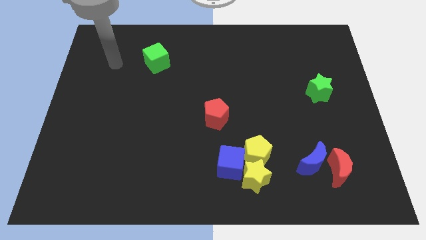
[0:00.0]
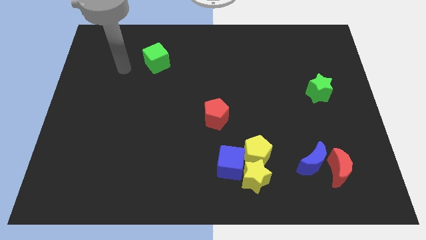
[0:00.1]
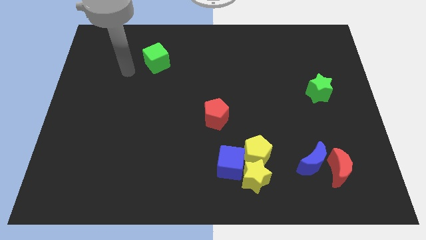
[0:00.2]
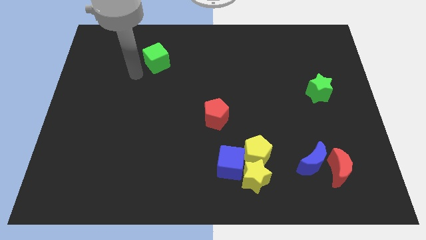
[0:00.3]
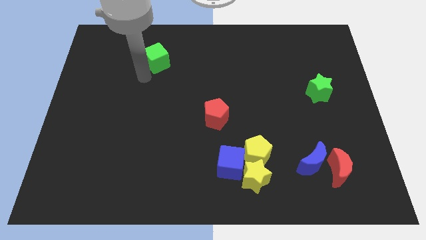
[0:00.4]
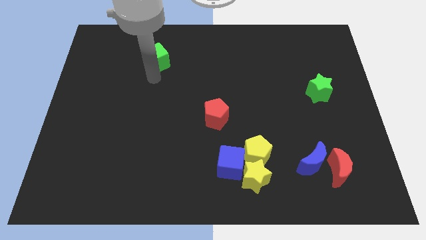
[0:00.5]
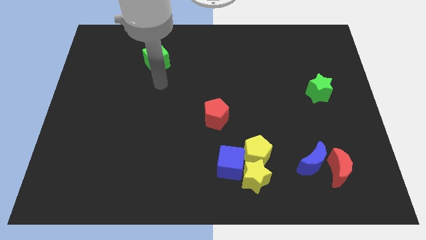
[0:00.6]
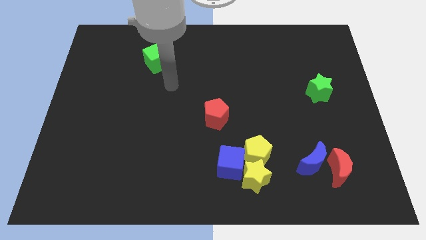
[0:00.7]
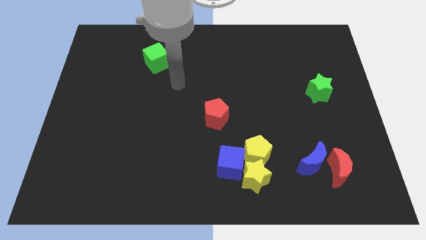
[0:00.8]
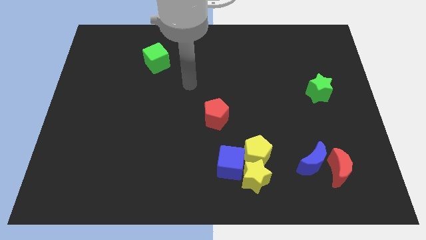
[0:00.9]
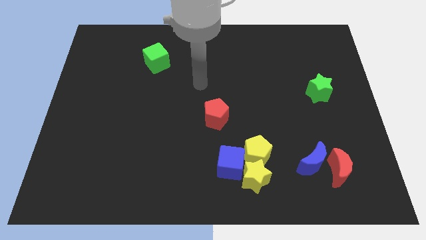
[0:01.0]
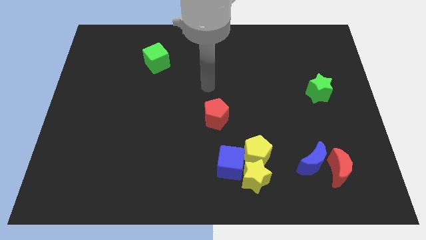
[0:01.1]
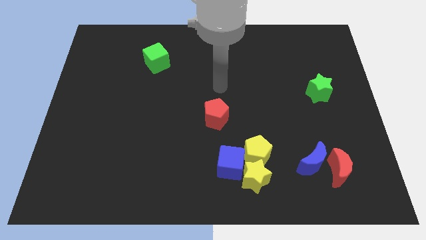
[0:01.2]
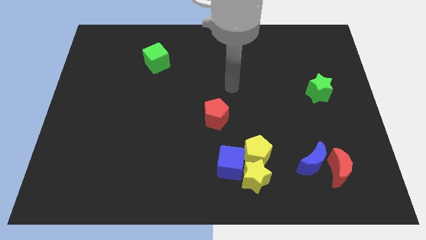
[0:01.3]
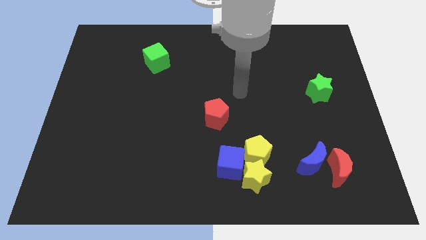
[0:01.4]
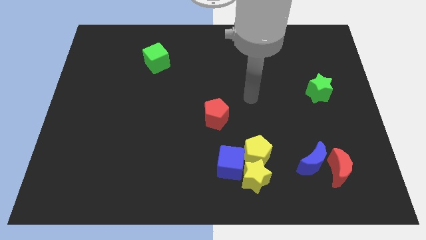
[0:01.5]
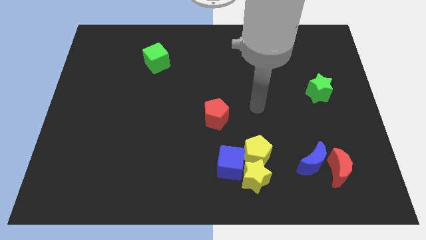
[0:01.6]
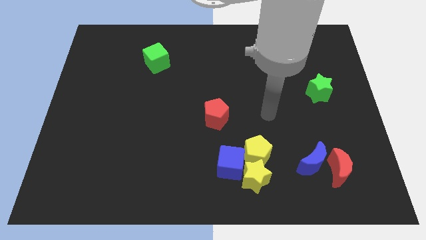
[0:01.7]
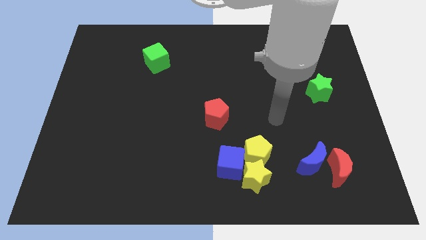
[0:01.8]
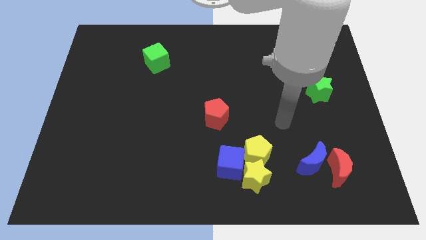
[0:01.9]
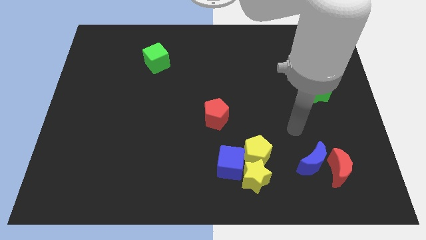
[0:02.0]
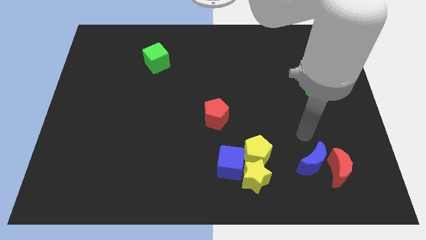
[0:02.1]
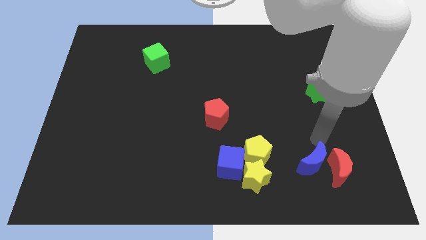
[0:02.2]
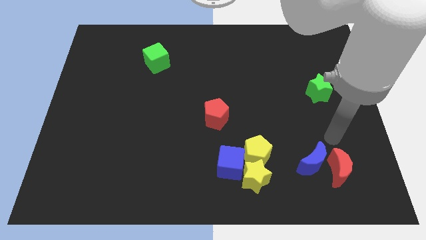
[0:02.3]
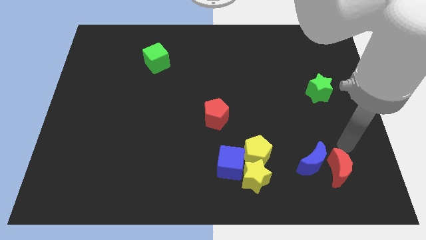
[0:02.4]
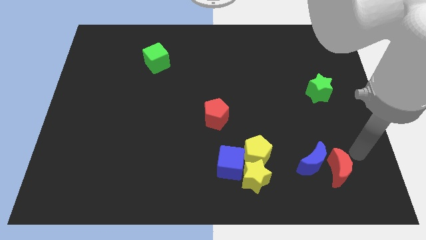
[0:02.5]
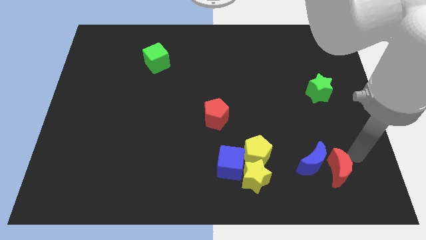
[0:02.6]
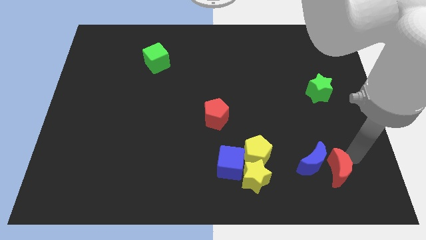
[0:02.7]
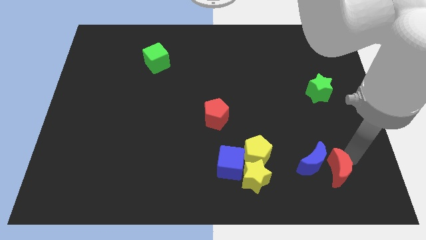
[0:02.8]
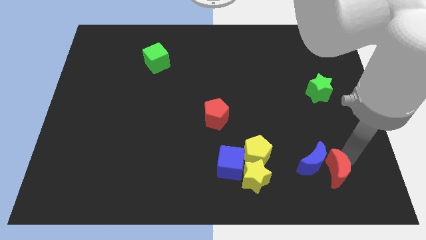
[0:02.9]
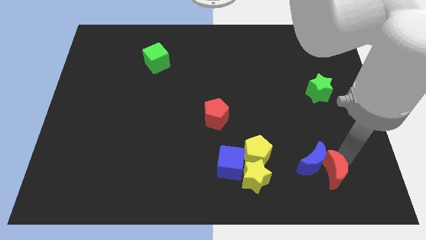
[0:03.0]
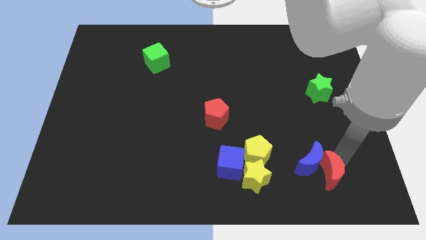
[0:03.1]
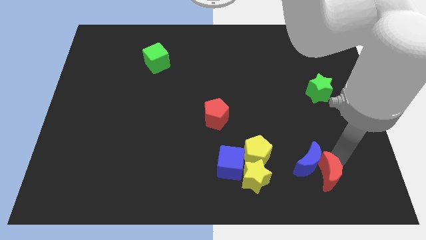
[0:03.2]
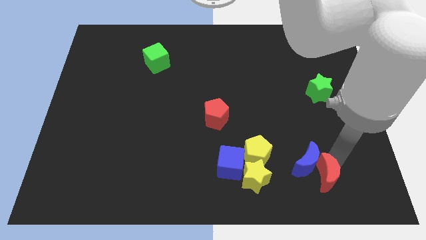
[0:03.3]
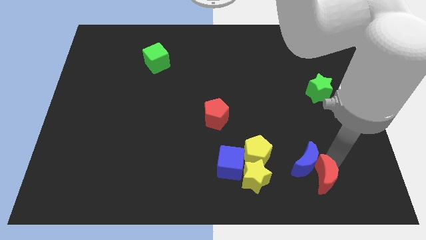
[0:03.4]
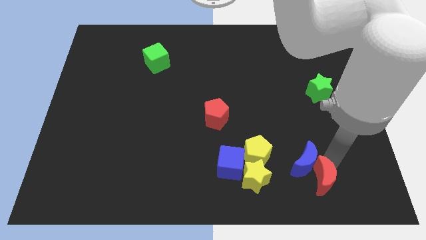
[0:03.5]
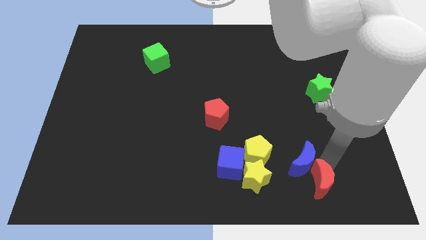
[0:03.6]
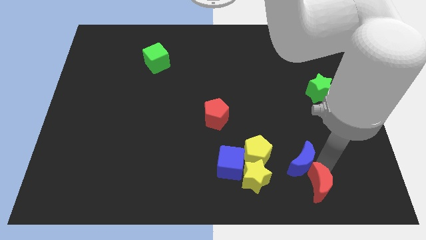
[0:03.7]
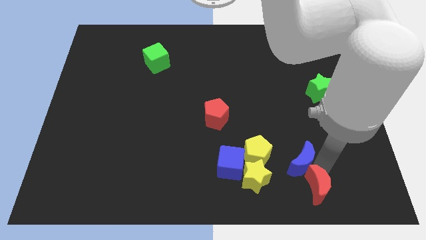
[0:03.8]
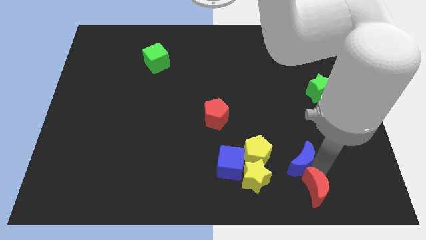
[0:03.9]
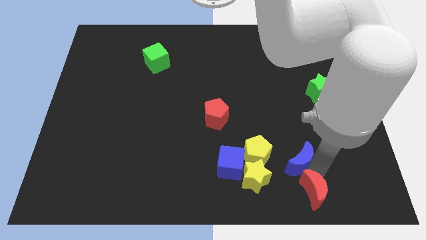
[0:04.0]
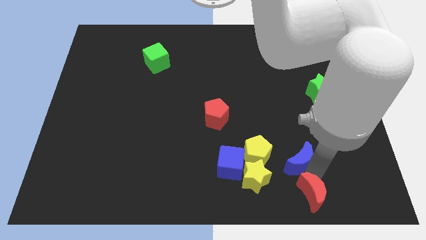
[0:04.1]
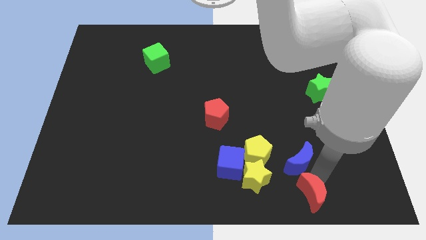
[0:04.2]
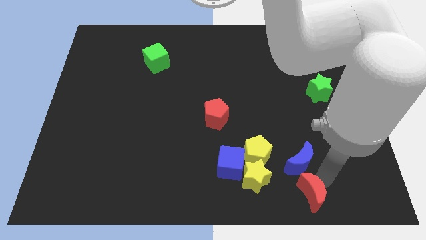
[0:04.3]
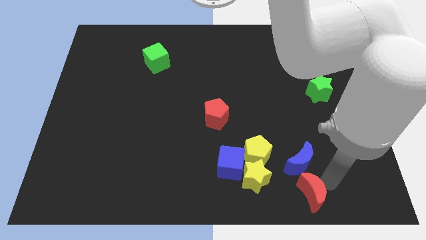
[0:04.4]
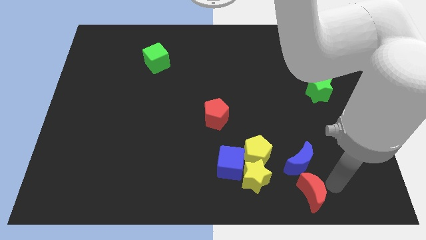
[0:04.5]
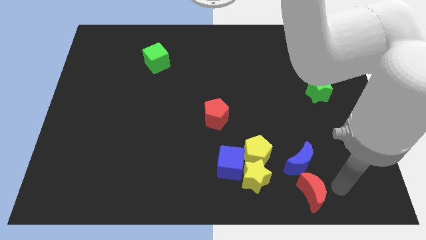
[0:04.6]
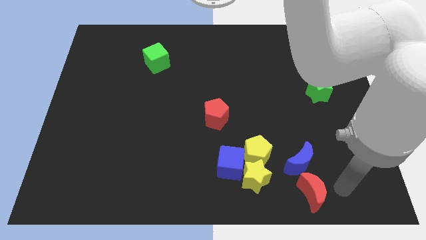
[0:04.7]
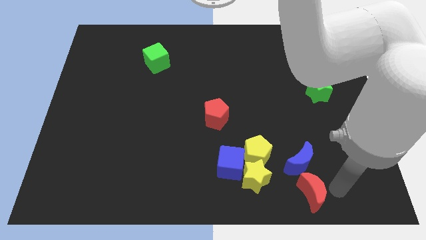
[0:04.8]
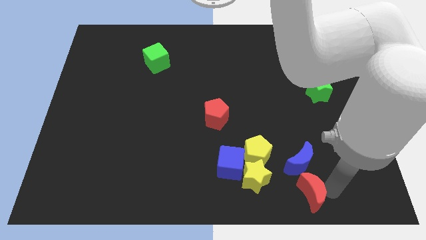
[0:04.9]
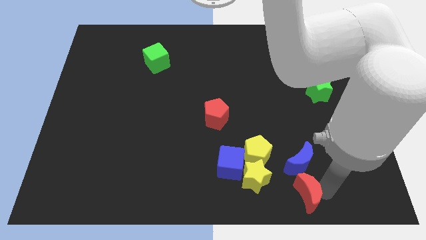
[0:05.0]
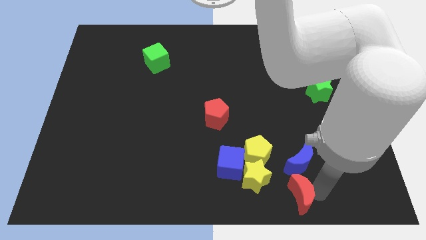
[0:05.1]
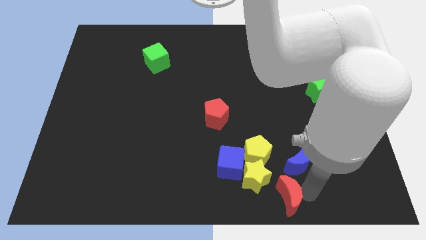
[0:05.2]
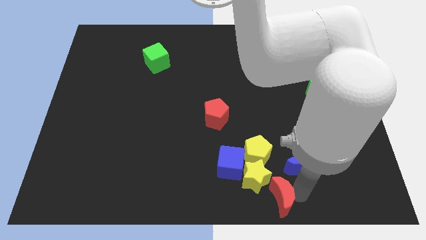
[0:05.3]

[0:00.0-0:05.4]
slide the red moon to the bottom side
